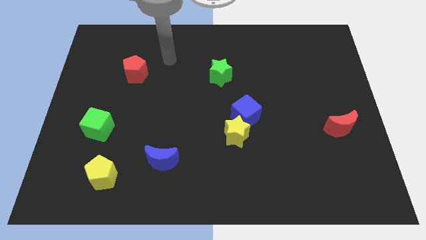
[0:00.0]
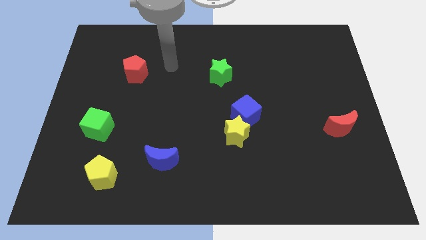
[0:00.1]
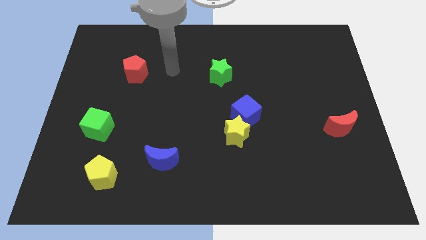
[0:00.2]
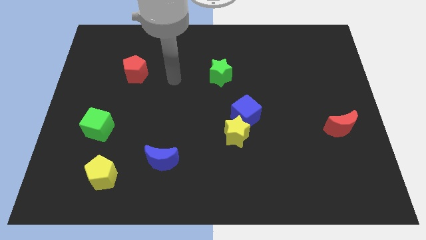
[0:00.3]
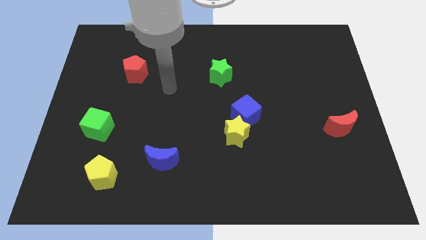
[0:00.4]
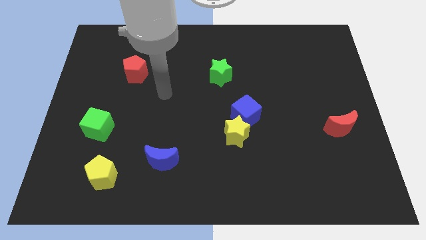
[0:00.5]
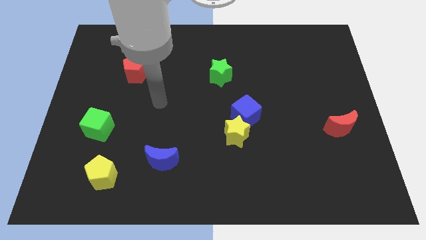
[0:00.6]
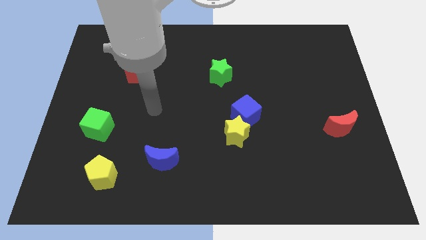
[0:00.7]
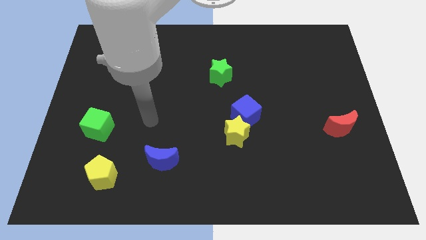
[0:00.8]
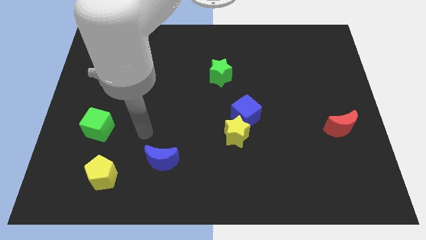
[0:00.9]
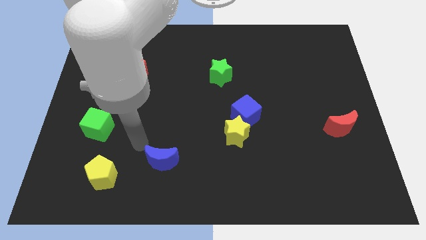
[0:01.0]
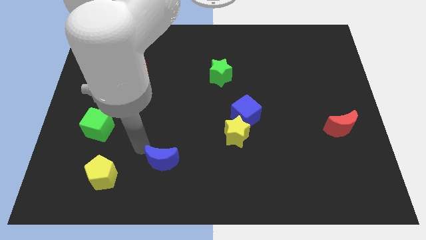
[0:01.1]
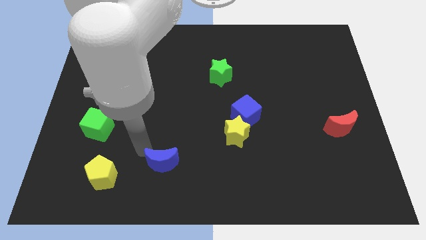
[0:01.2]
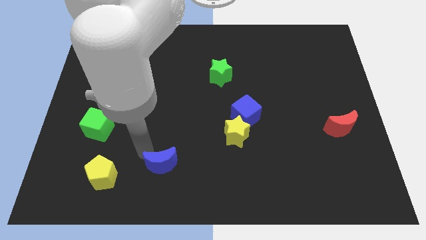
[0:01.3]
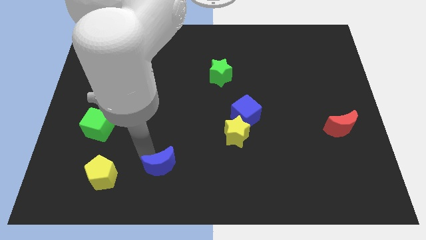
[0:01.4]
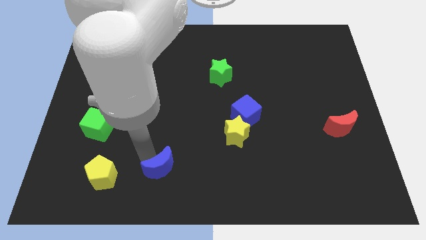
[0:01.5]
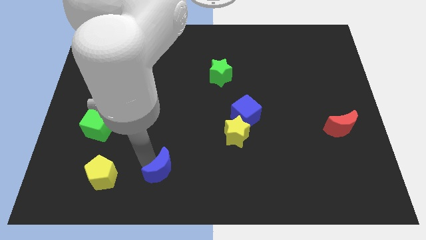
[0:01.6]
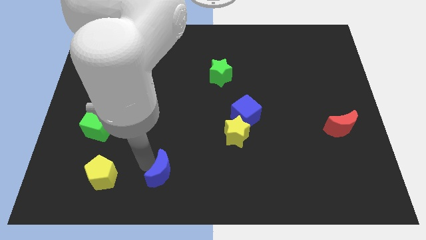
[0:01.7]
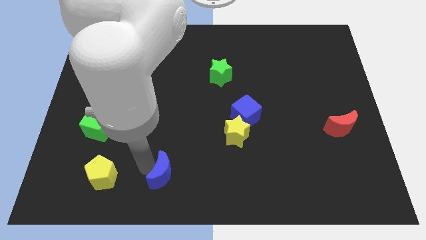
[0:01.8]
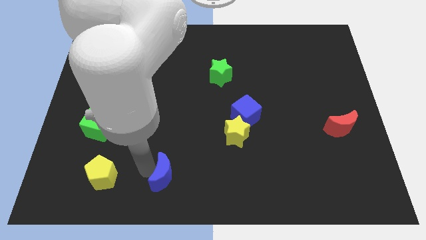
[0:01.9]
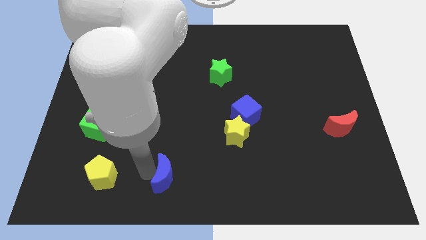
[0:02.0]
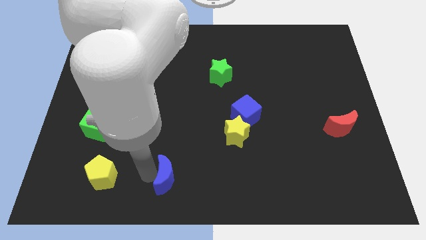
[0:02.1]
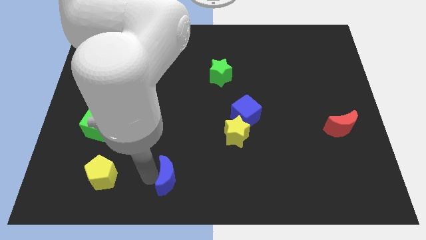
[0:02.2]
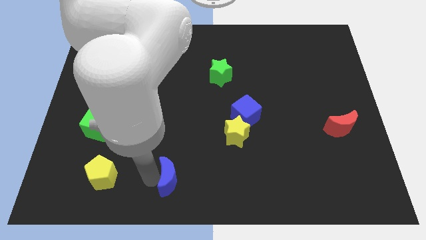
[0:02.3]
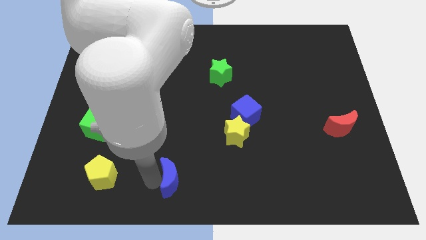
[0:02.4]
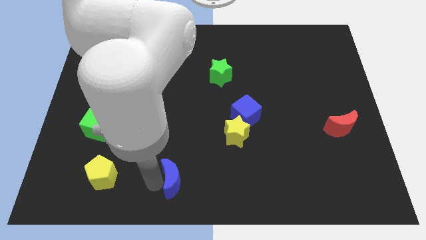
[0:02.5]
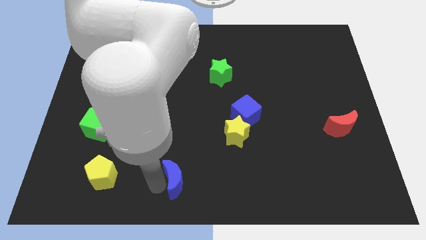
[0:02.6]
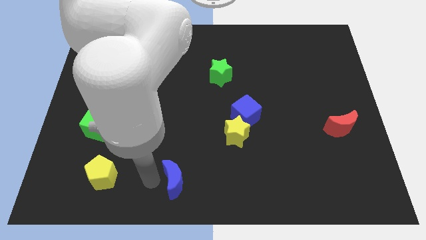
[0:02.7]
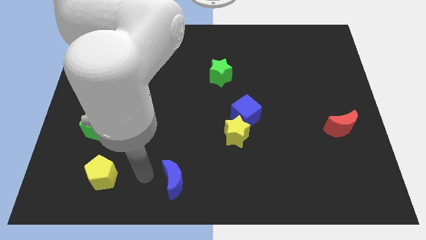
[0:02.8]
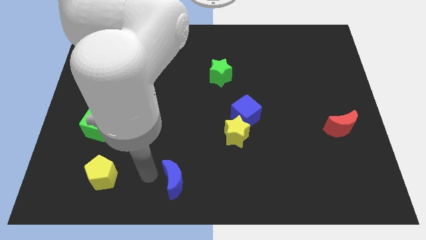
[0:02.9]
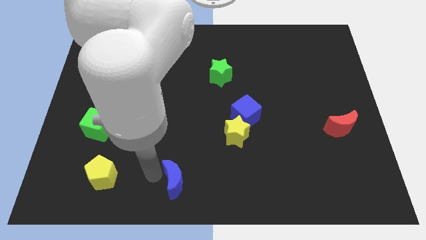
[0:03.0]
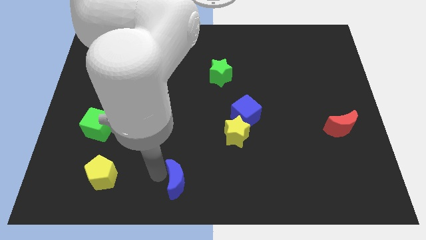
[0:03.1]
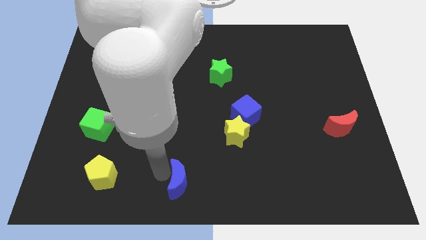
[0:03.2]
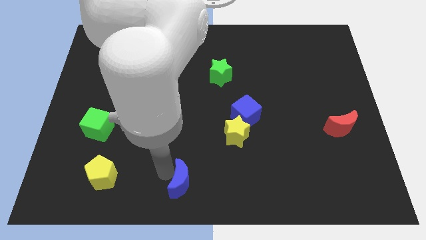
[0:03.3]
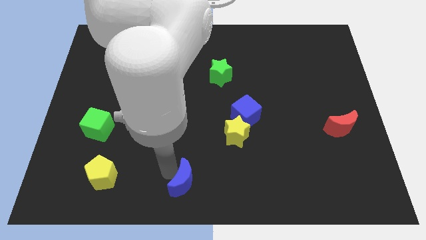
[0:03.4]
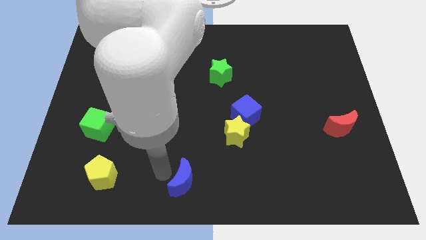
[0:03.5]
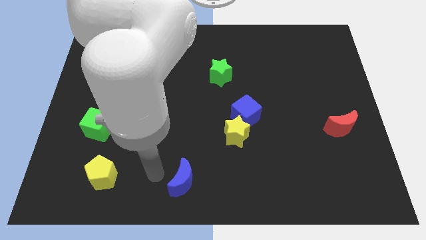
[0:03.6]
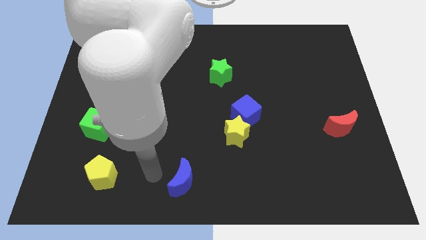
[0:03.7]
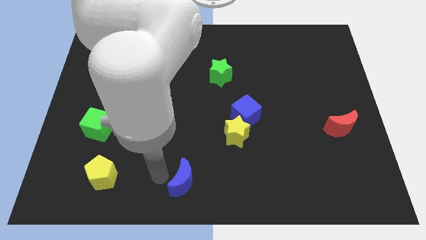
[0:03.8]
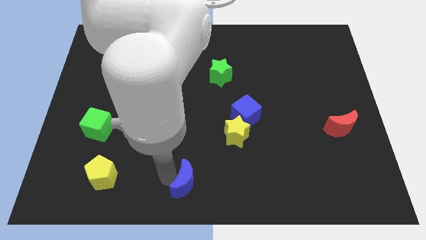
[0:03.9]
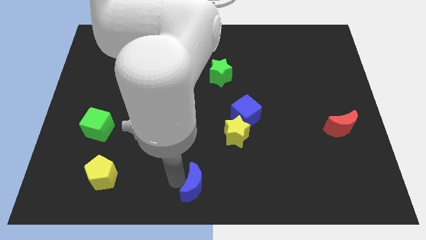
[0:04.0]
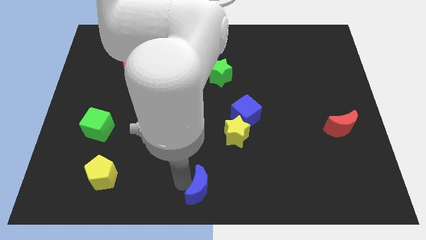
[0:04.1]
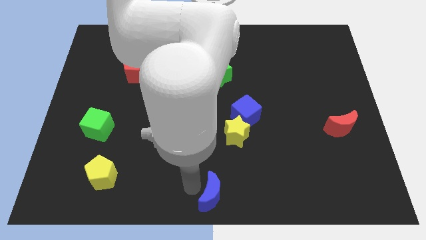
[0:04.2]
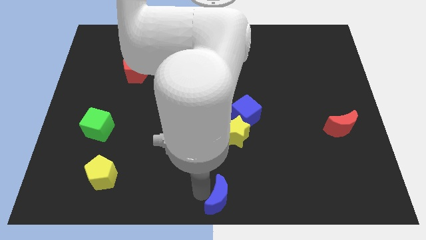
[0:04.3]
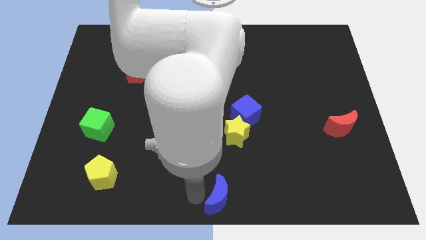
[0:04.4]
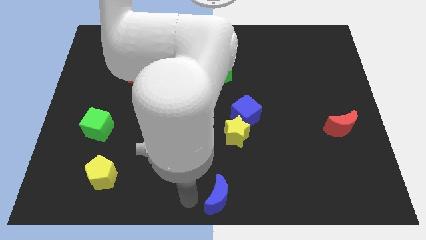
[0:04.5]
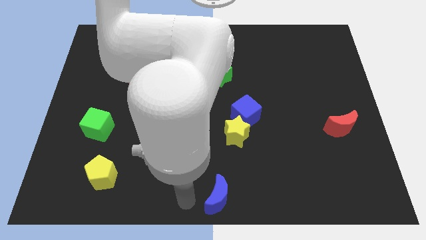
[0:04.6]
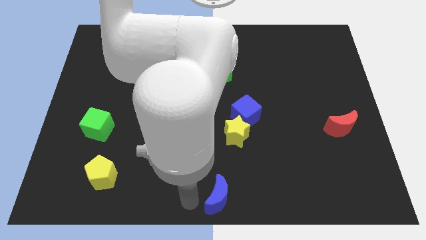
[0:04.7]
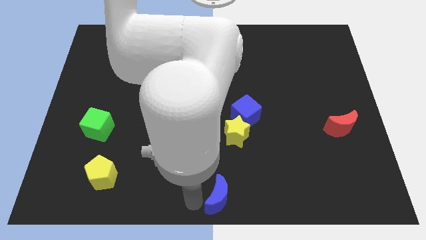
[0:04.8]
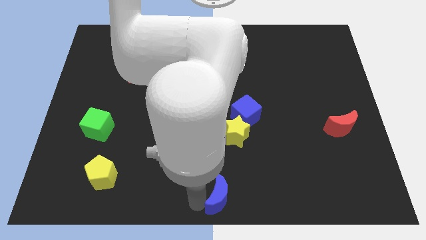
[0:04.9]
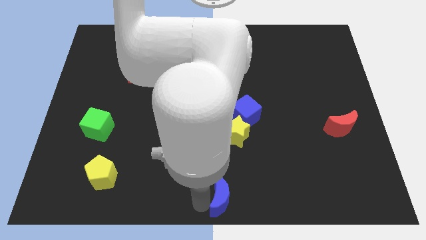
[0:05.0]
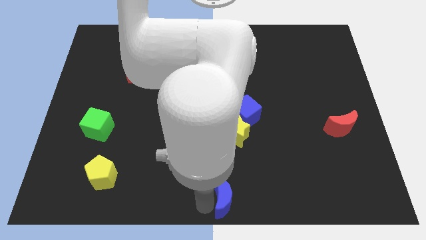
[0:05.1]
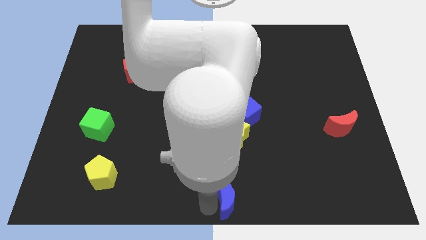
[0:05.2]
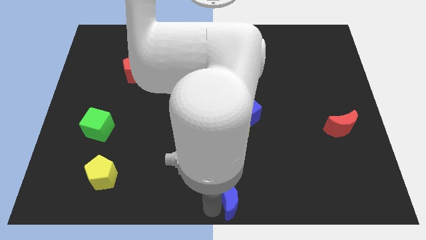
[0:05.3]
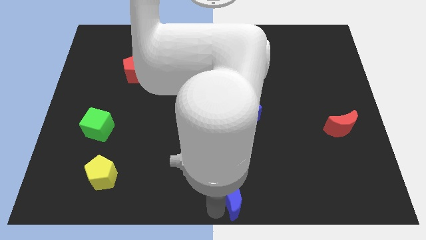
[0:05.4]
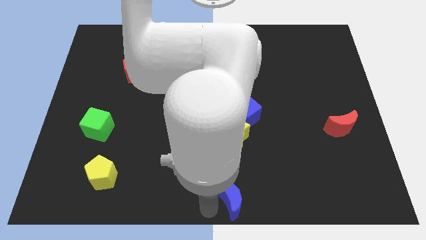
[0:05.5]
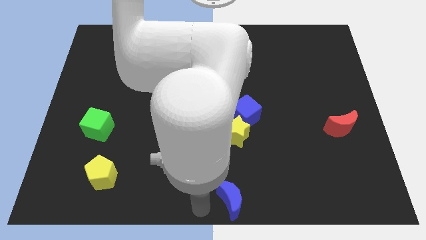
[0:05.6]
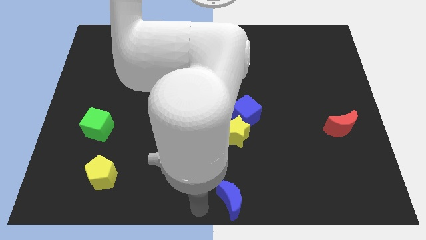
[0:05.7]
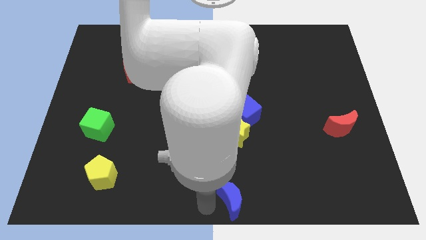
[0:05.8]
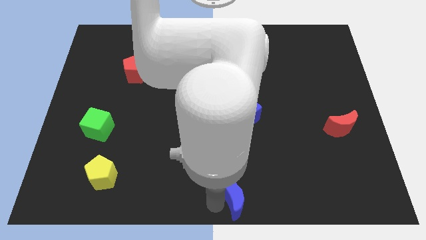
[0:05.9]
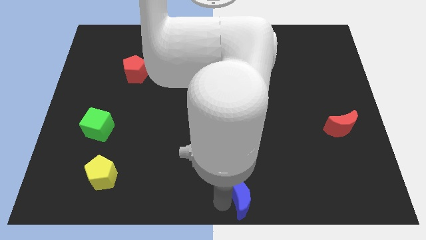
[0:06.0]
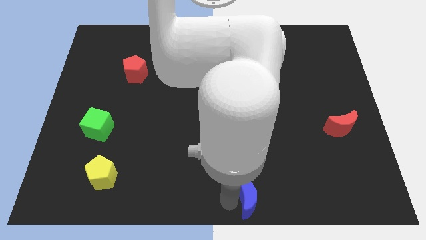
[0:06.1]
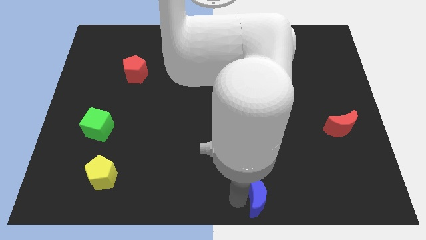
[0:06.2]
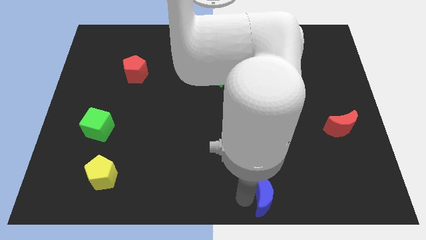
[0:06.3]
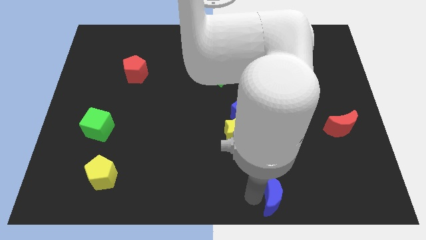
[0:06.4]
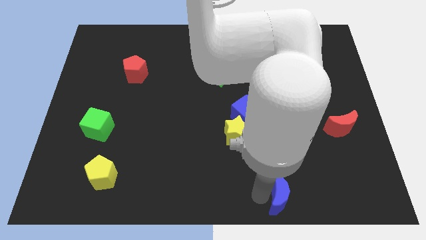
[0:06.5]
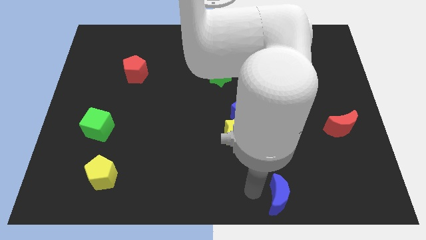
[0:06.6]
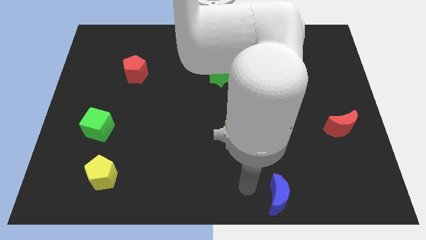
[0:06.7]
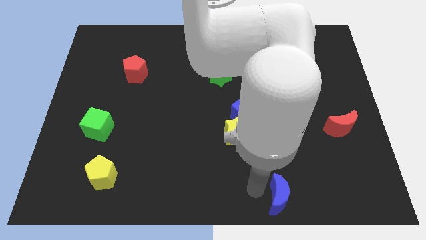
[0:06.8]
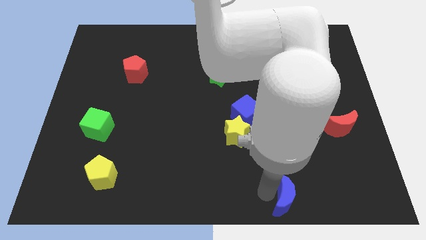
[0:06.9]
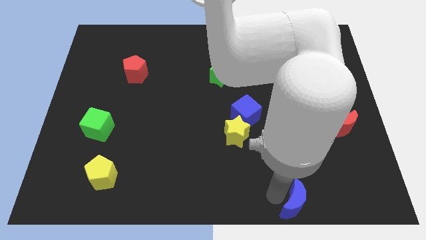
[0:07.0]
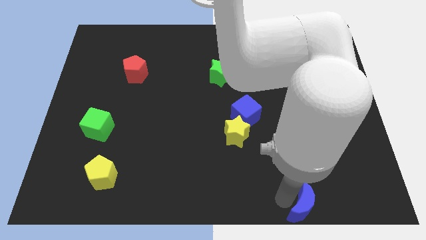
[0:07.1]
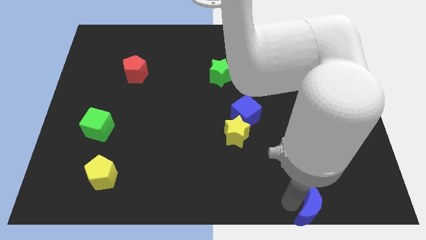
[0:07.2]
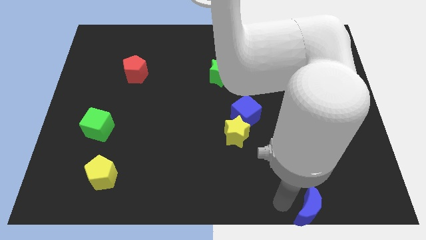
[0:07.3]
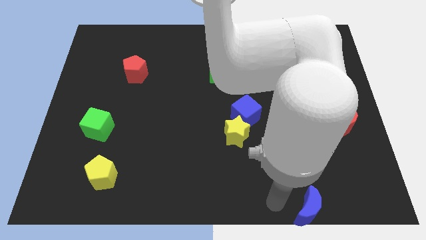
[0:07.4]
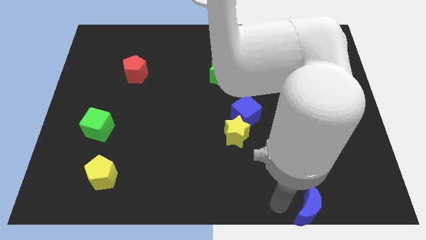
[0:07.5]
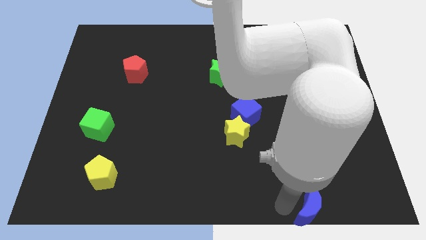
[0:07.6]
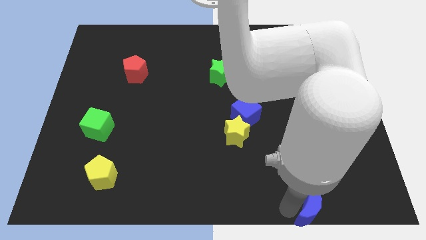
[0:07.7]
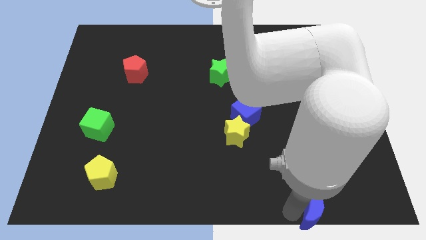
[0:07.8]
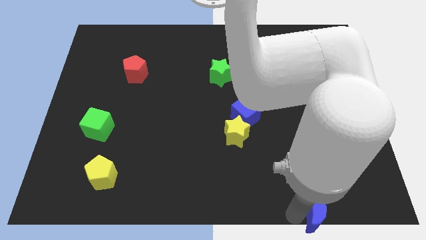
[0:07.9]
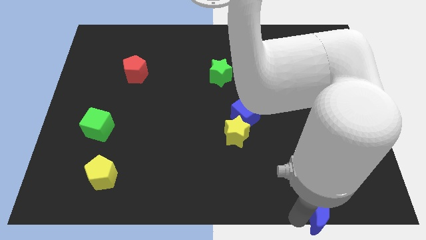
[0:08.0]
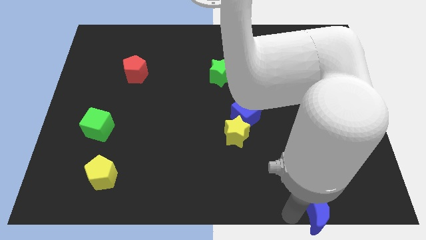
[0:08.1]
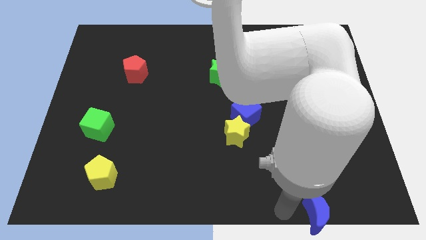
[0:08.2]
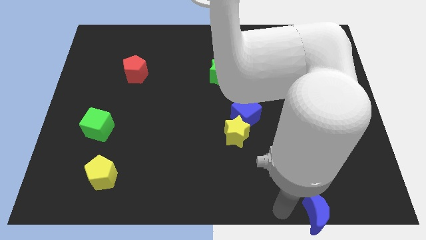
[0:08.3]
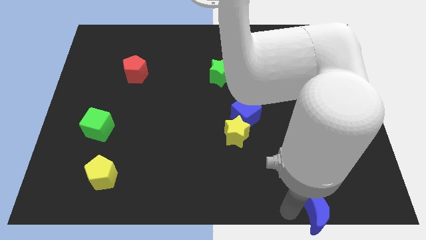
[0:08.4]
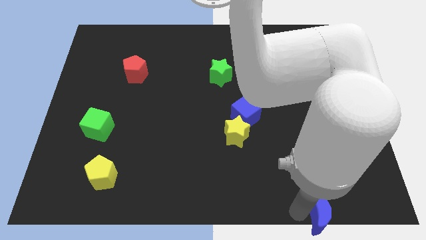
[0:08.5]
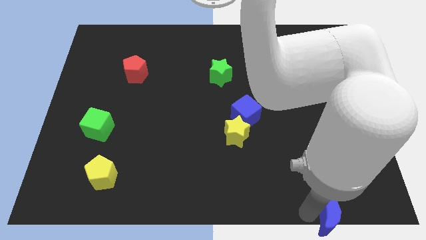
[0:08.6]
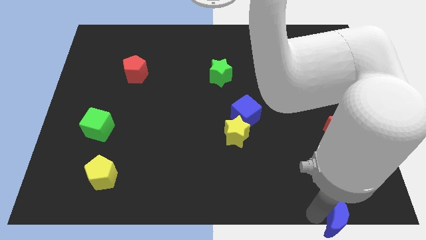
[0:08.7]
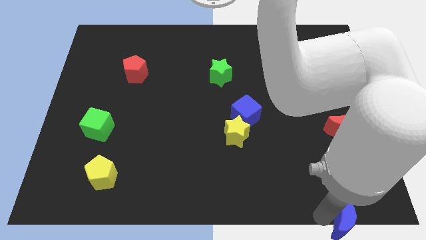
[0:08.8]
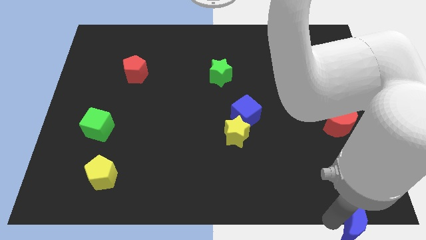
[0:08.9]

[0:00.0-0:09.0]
push the blue moon to the bottom right
